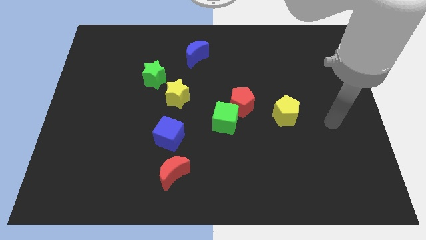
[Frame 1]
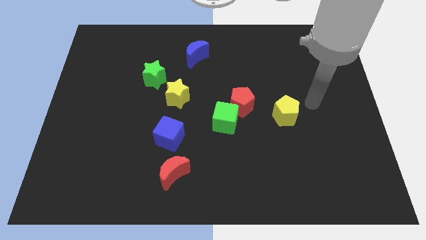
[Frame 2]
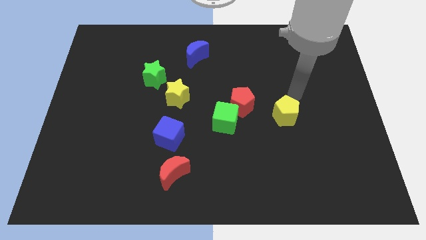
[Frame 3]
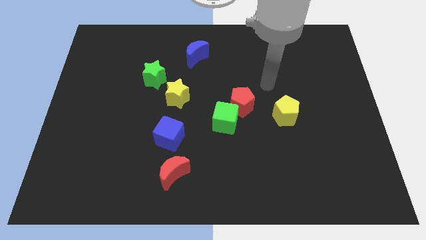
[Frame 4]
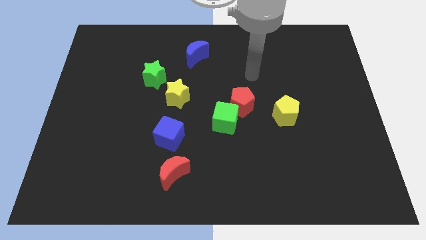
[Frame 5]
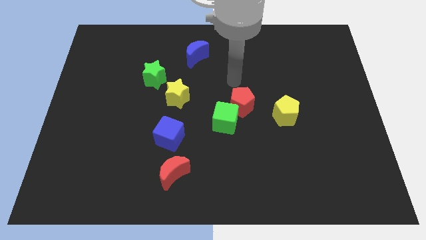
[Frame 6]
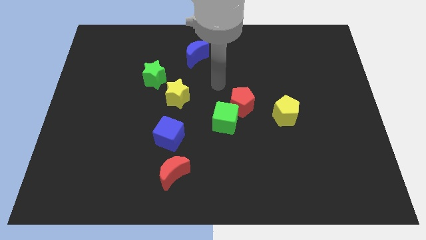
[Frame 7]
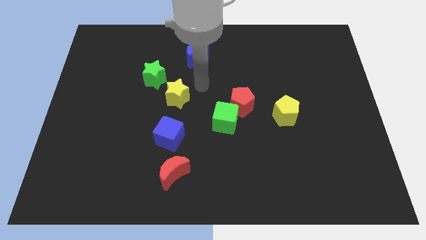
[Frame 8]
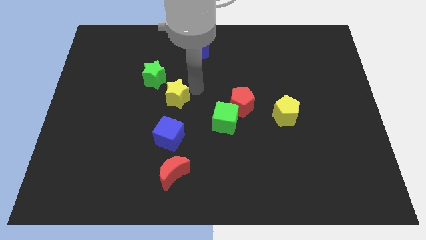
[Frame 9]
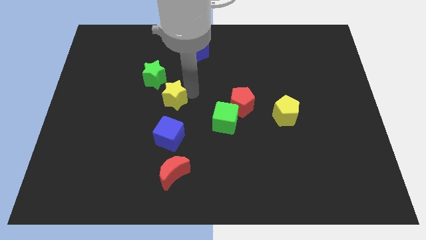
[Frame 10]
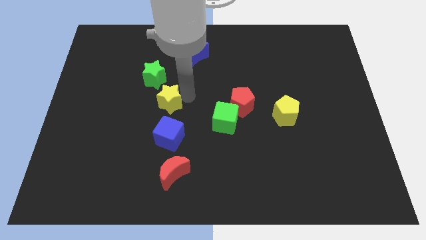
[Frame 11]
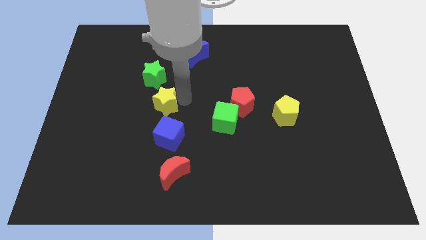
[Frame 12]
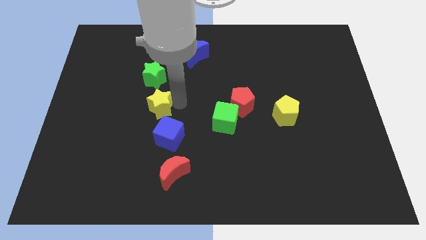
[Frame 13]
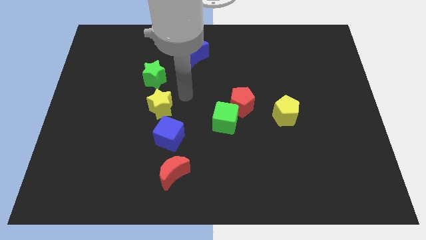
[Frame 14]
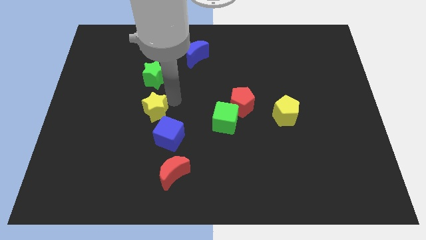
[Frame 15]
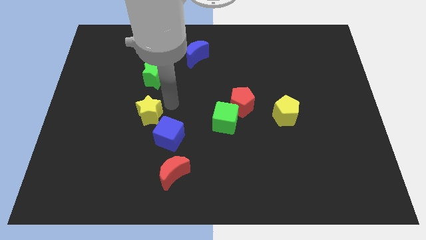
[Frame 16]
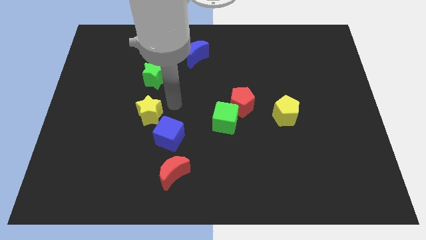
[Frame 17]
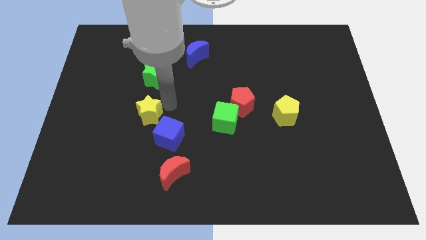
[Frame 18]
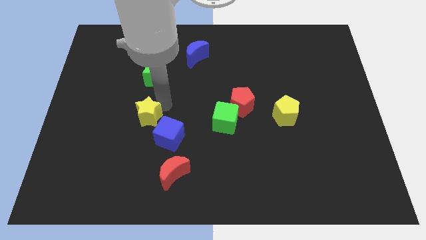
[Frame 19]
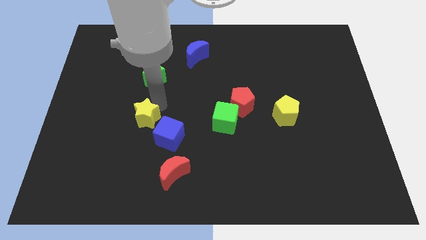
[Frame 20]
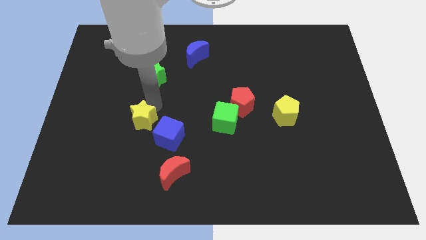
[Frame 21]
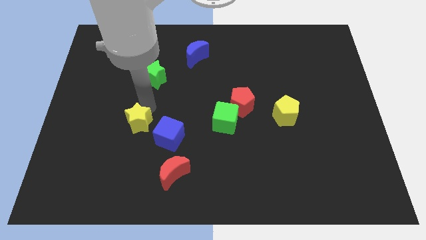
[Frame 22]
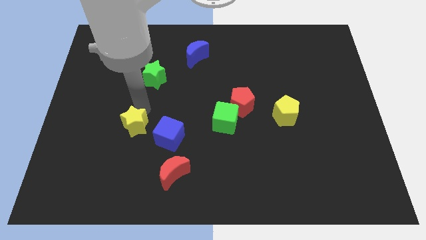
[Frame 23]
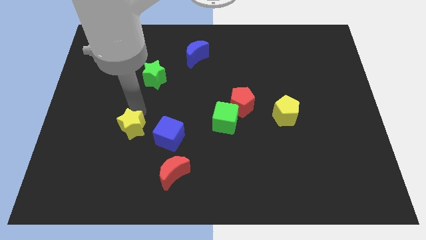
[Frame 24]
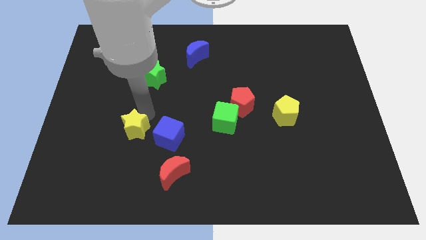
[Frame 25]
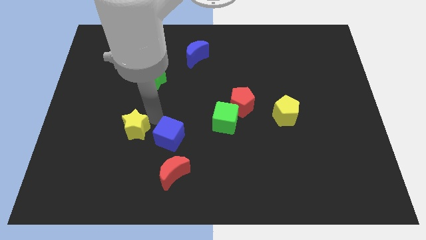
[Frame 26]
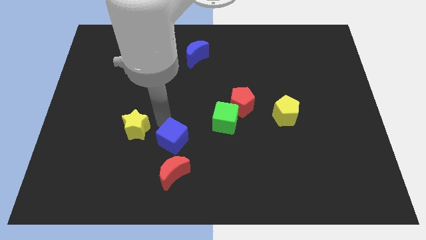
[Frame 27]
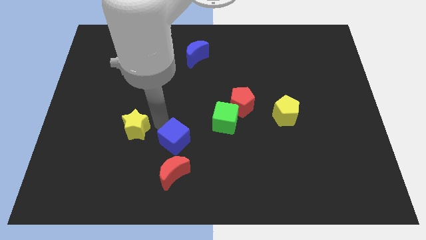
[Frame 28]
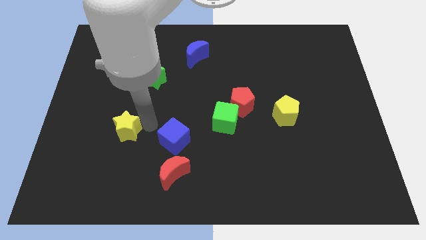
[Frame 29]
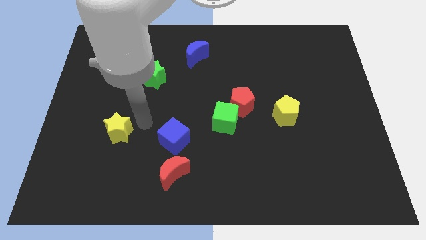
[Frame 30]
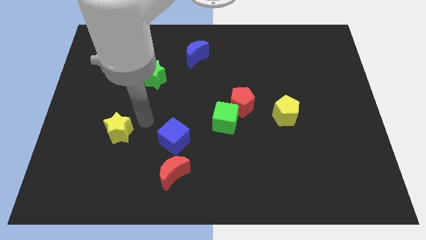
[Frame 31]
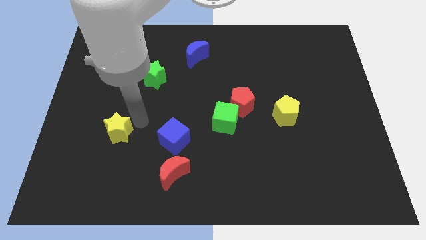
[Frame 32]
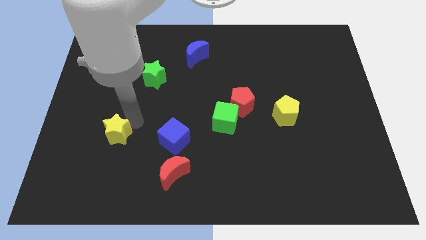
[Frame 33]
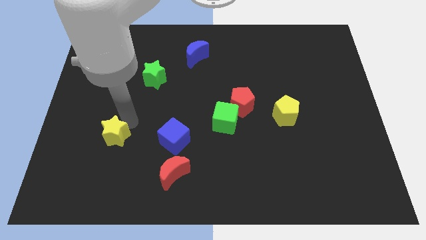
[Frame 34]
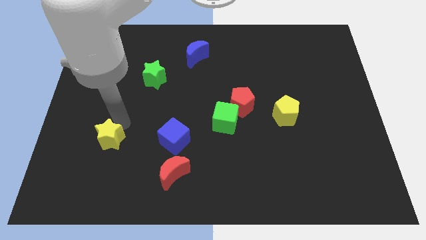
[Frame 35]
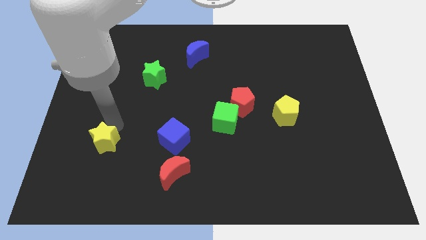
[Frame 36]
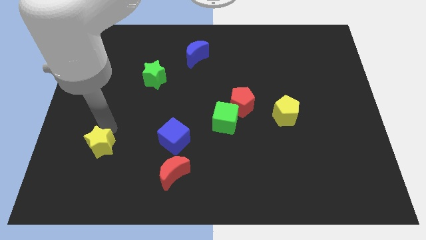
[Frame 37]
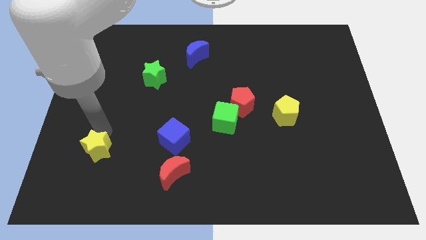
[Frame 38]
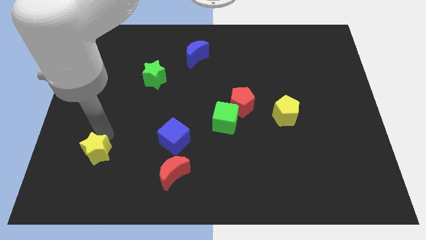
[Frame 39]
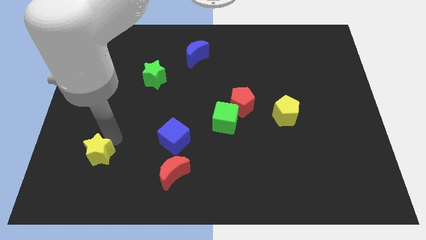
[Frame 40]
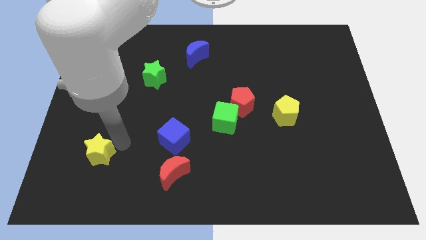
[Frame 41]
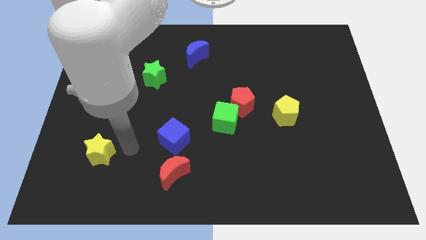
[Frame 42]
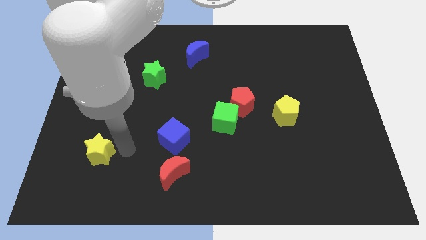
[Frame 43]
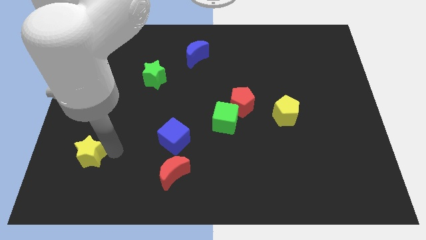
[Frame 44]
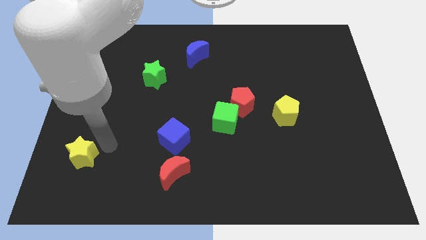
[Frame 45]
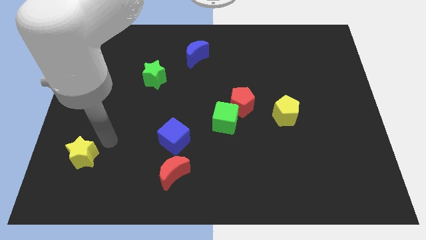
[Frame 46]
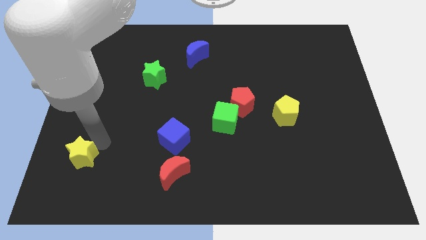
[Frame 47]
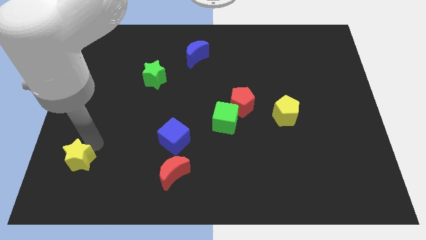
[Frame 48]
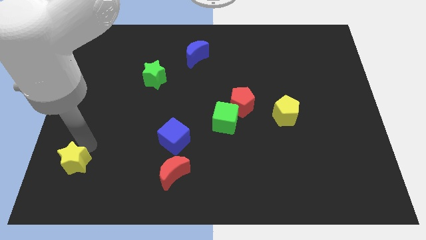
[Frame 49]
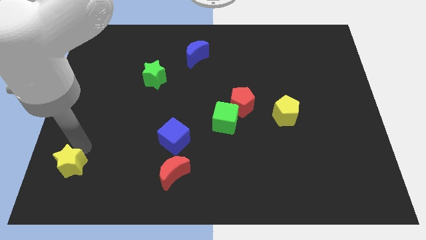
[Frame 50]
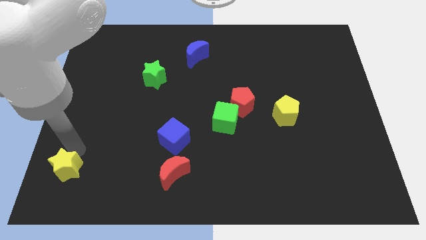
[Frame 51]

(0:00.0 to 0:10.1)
put the yellow star to the bottom left corner

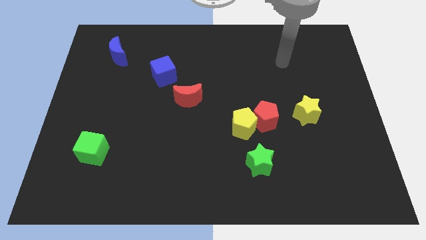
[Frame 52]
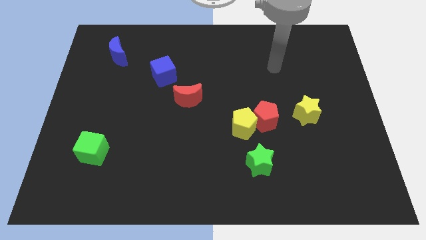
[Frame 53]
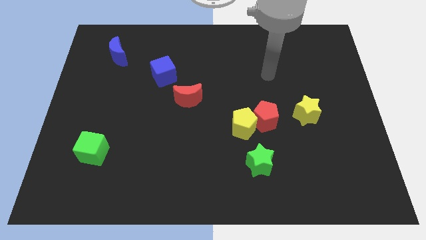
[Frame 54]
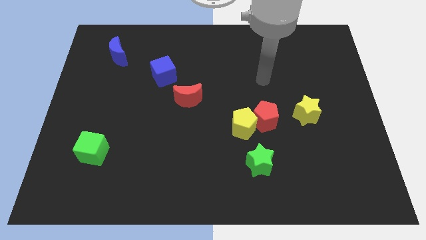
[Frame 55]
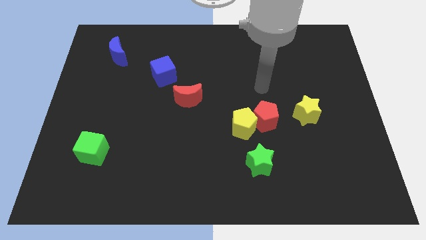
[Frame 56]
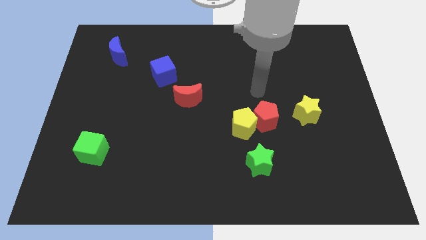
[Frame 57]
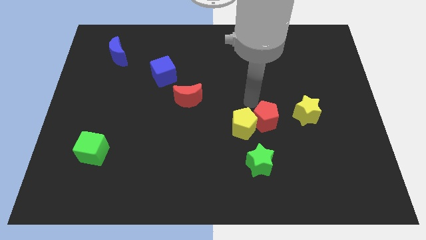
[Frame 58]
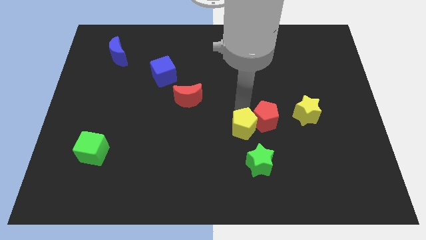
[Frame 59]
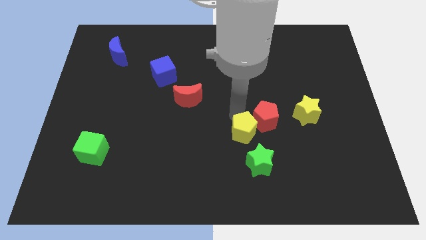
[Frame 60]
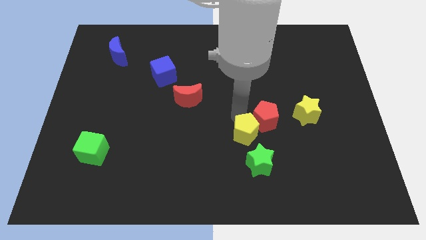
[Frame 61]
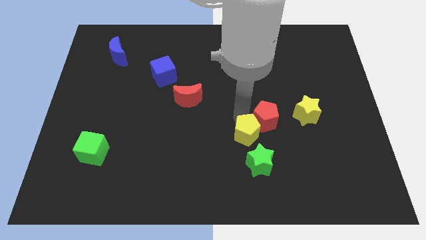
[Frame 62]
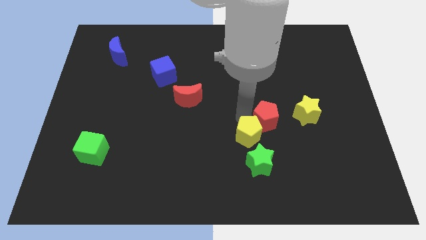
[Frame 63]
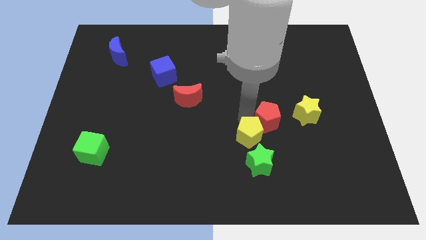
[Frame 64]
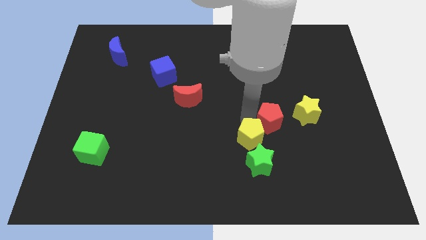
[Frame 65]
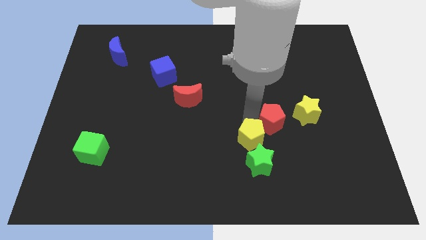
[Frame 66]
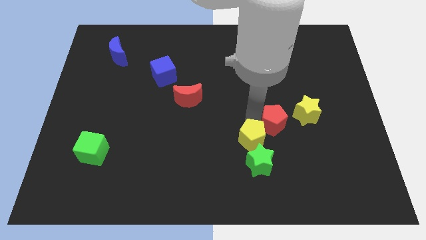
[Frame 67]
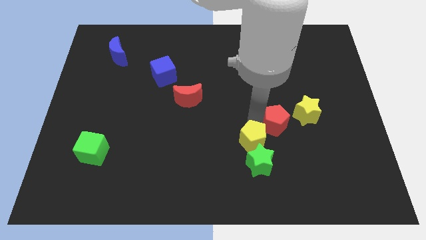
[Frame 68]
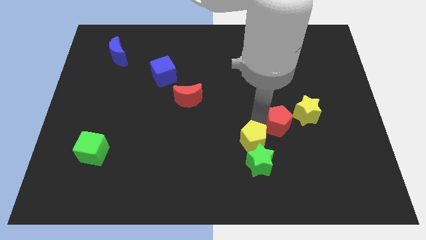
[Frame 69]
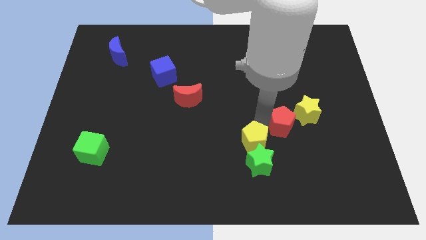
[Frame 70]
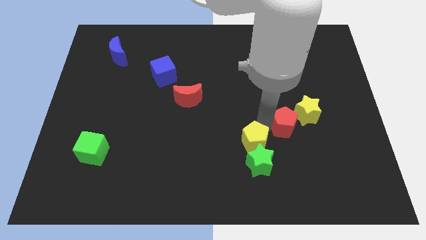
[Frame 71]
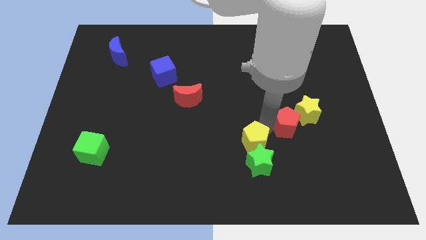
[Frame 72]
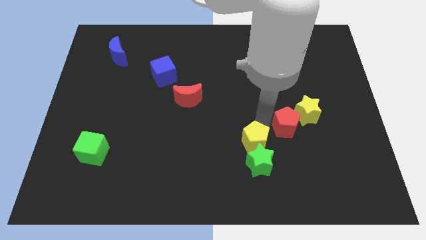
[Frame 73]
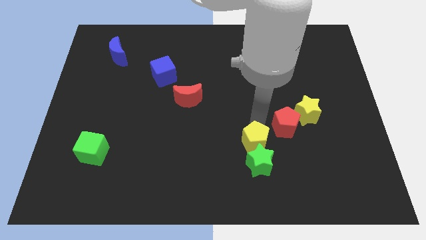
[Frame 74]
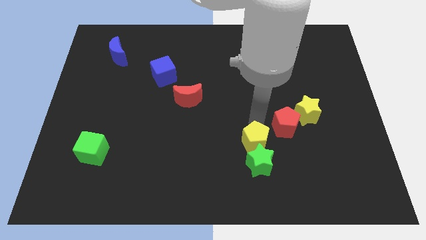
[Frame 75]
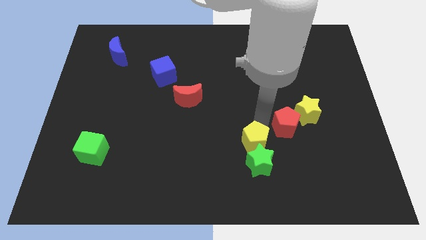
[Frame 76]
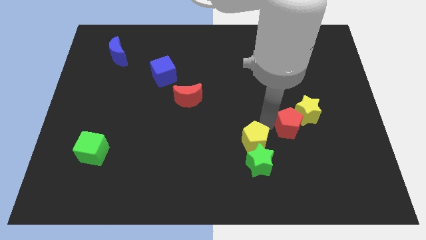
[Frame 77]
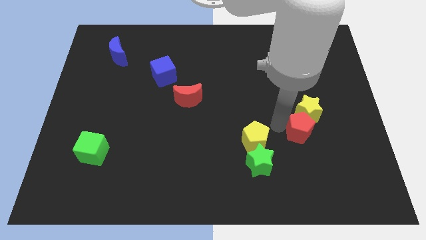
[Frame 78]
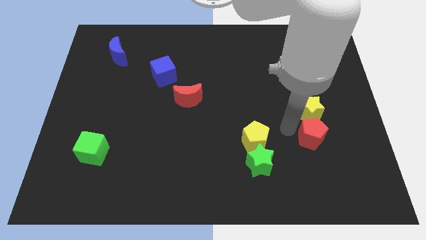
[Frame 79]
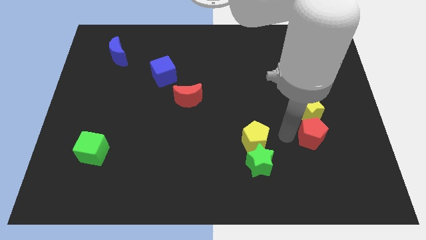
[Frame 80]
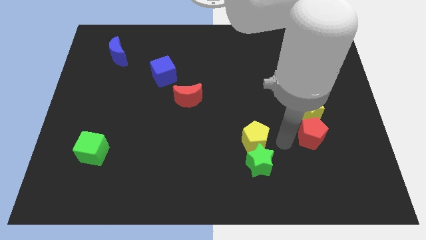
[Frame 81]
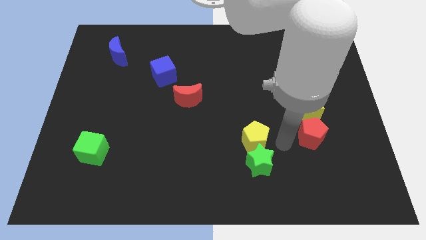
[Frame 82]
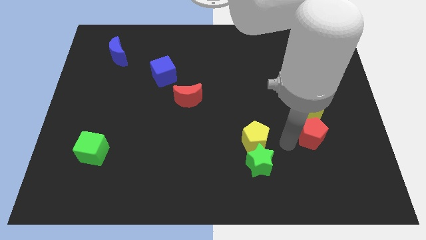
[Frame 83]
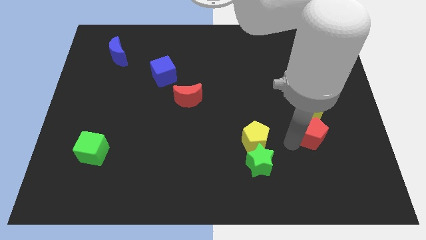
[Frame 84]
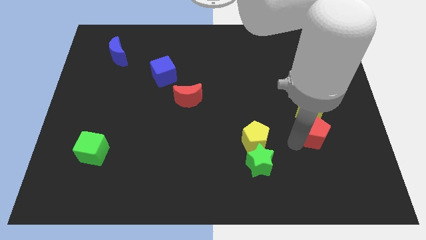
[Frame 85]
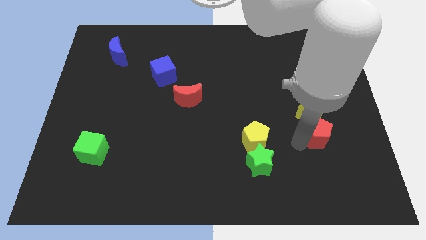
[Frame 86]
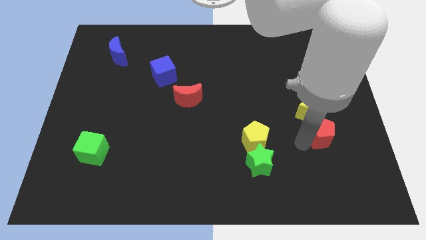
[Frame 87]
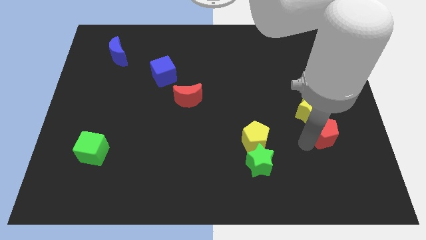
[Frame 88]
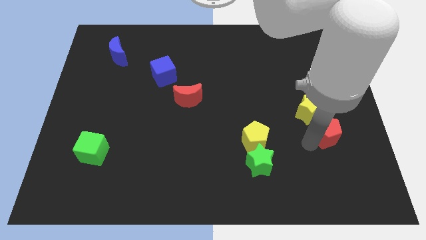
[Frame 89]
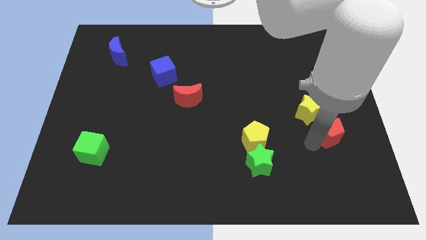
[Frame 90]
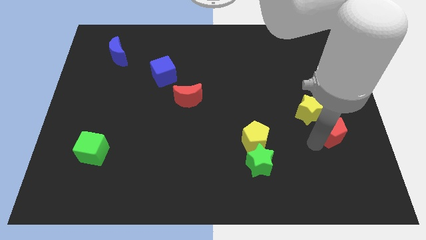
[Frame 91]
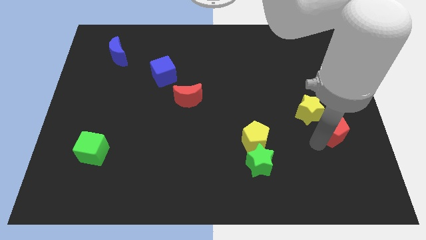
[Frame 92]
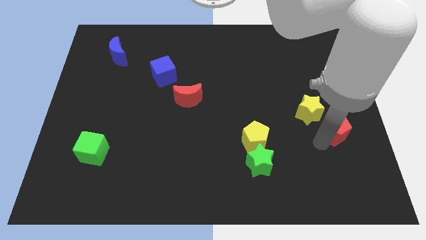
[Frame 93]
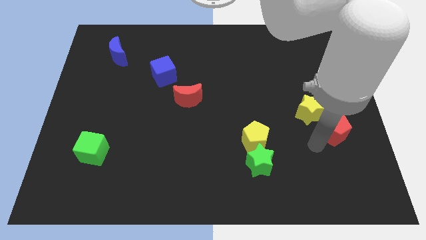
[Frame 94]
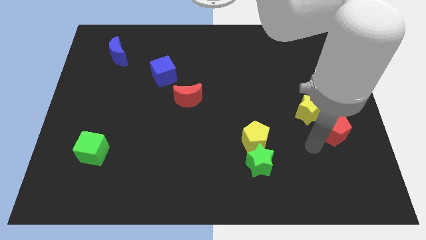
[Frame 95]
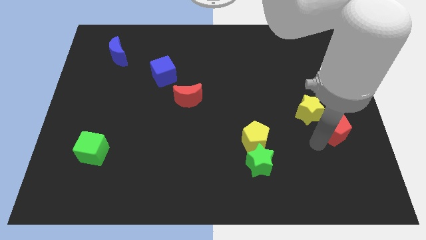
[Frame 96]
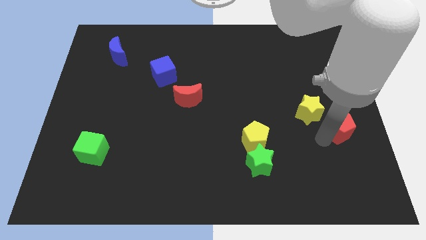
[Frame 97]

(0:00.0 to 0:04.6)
push the red pentagon to the center right
